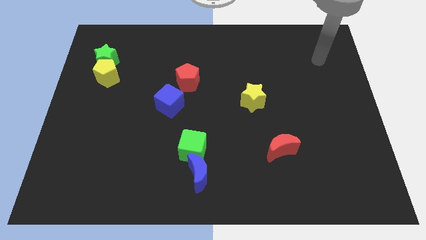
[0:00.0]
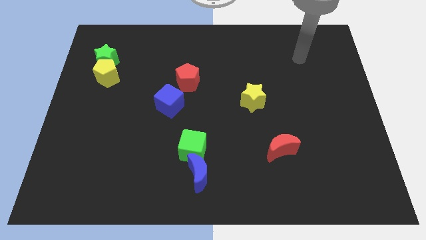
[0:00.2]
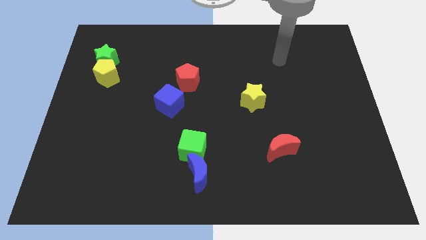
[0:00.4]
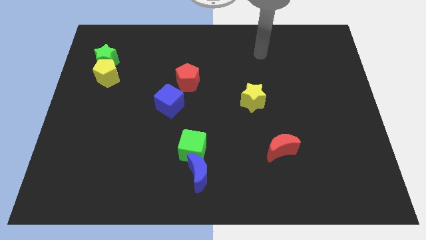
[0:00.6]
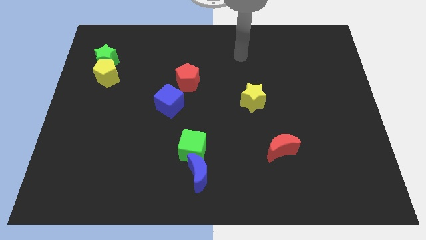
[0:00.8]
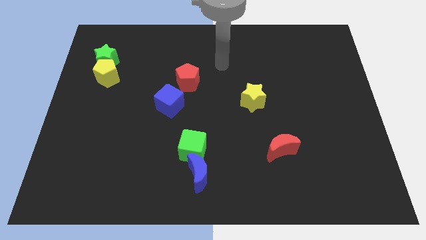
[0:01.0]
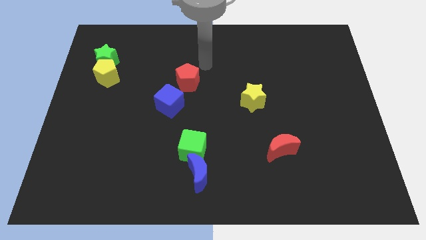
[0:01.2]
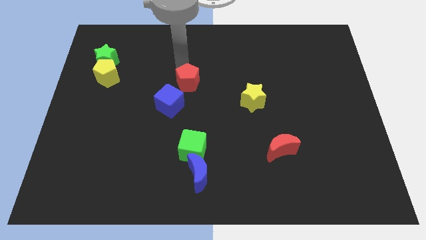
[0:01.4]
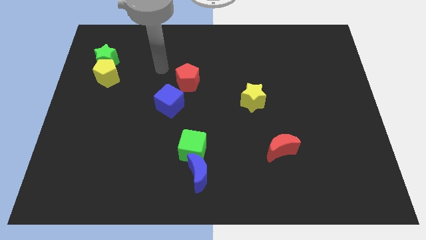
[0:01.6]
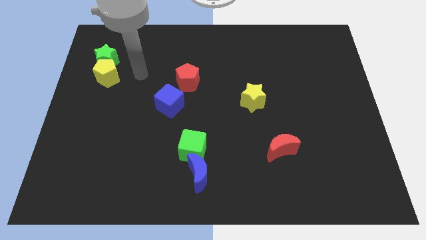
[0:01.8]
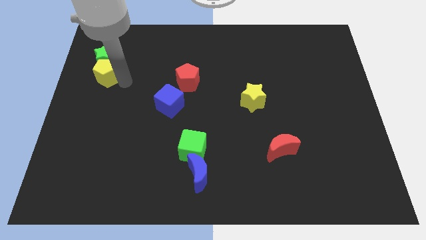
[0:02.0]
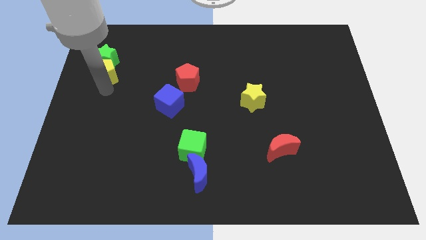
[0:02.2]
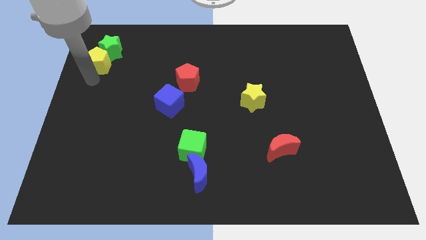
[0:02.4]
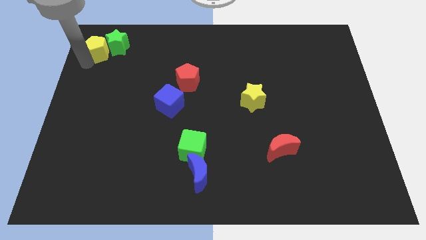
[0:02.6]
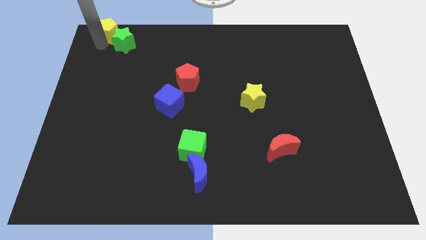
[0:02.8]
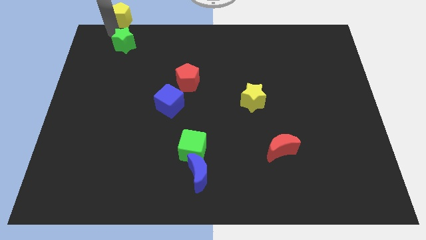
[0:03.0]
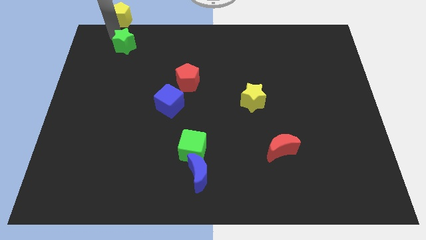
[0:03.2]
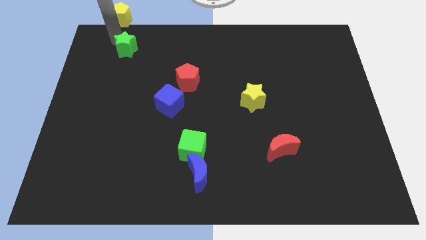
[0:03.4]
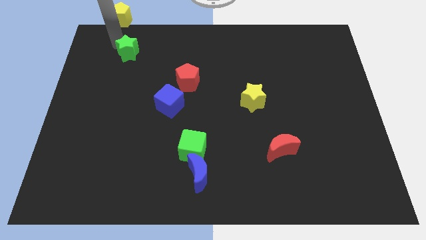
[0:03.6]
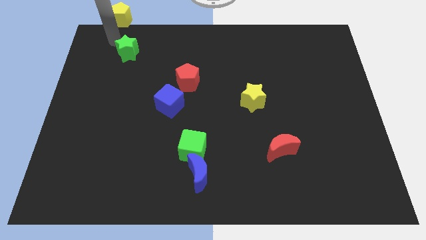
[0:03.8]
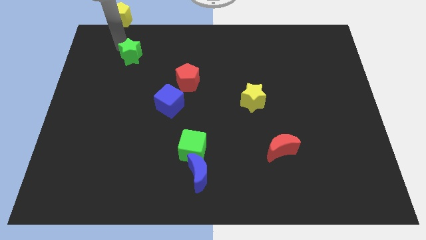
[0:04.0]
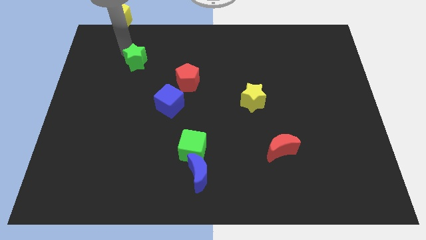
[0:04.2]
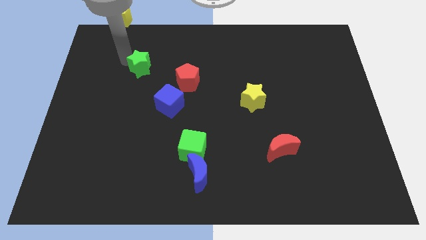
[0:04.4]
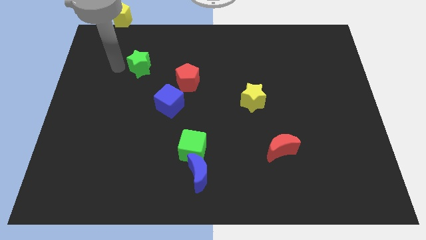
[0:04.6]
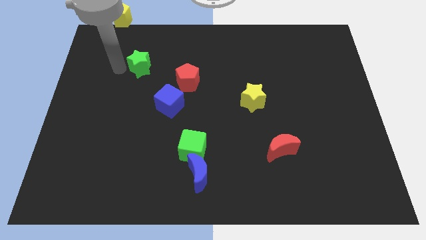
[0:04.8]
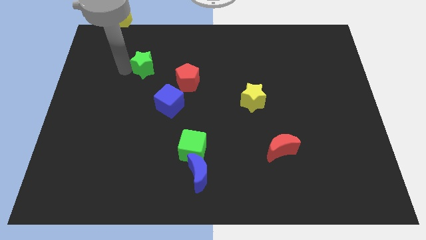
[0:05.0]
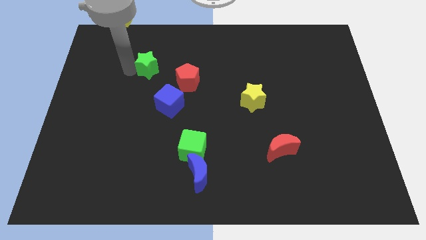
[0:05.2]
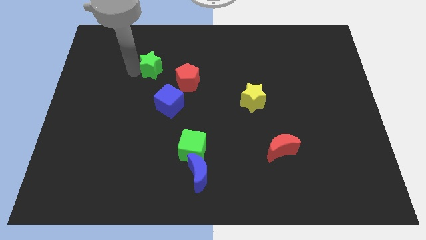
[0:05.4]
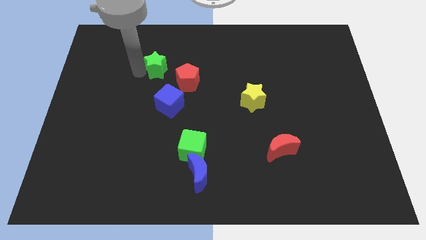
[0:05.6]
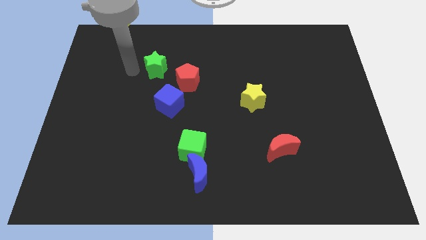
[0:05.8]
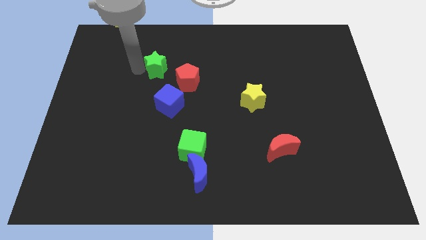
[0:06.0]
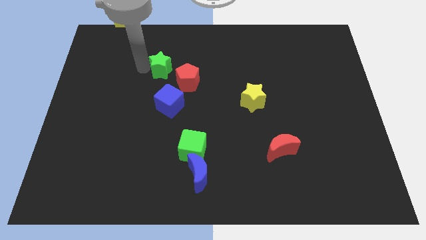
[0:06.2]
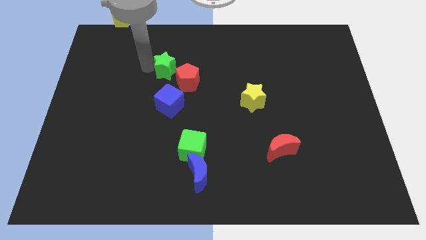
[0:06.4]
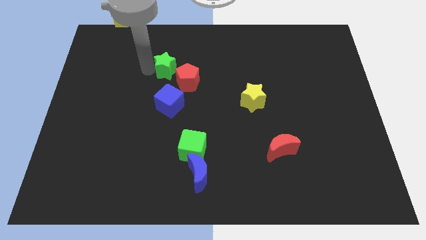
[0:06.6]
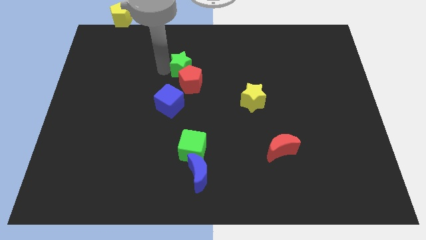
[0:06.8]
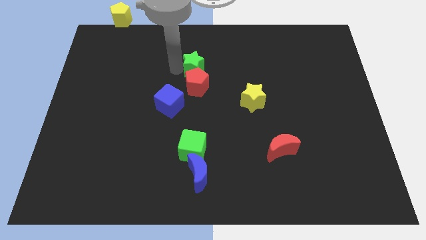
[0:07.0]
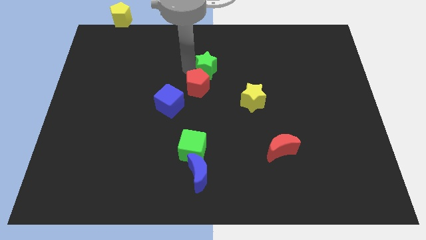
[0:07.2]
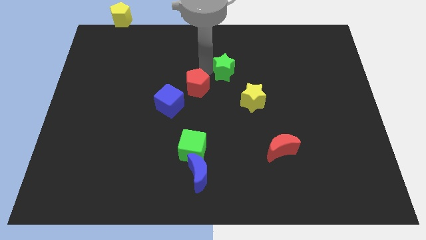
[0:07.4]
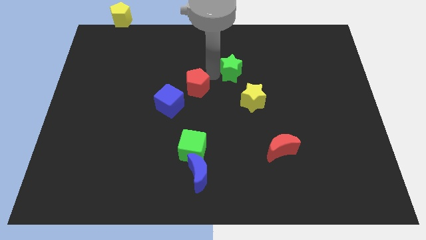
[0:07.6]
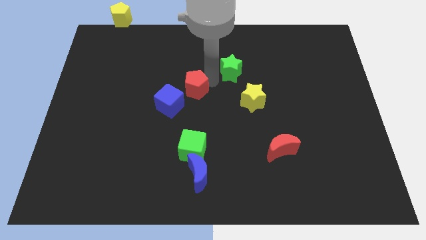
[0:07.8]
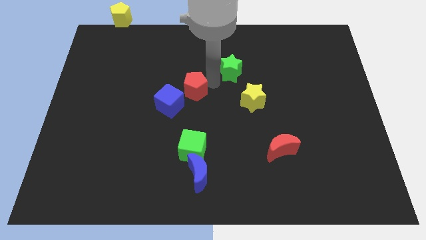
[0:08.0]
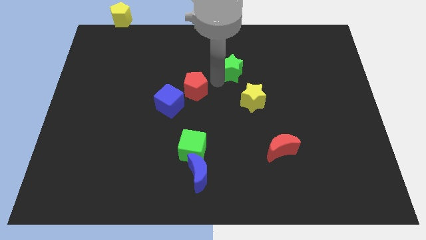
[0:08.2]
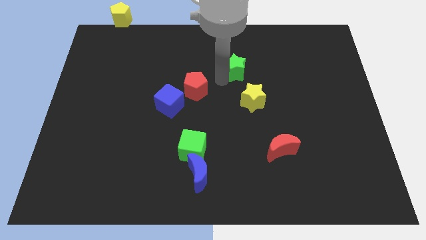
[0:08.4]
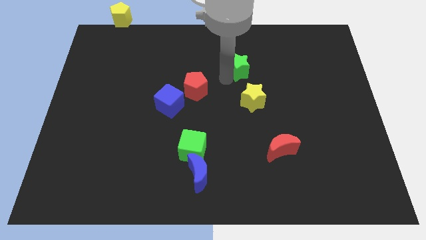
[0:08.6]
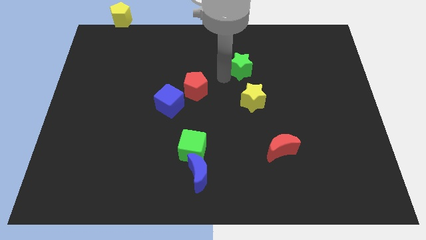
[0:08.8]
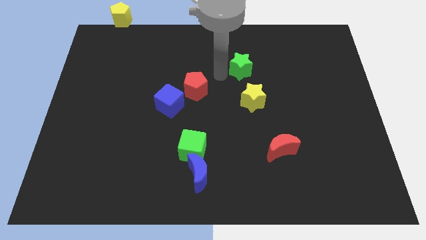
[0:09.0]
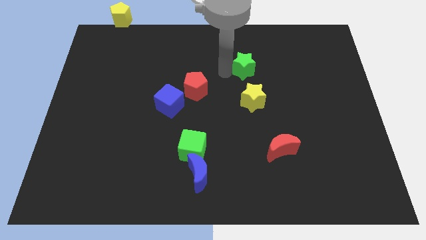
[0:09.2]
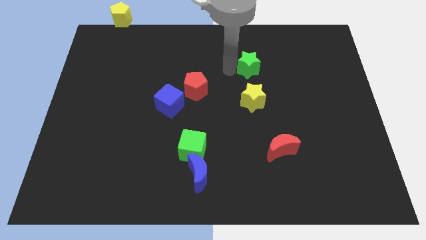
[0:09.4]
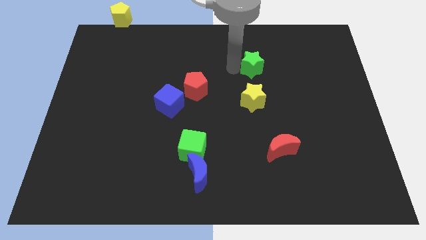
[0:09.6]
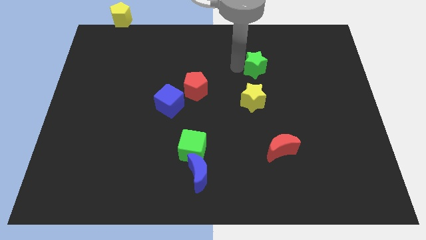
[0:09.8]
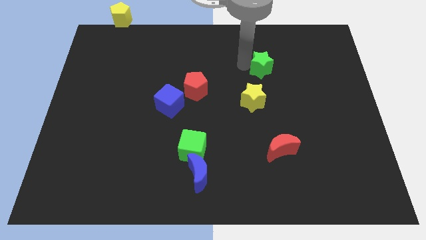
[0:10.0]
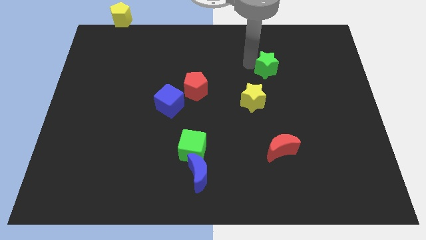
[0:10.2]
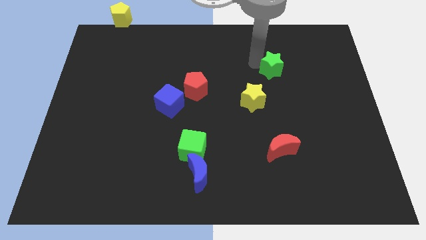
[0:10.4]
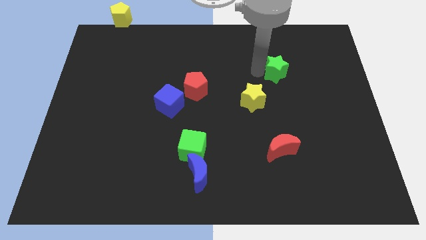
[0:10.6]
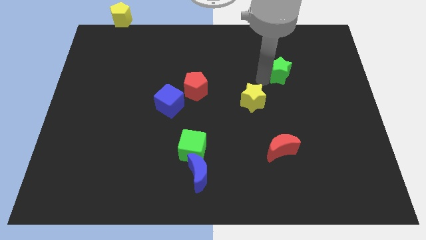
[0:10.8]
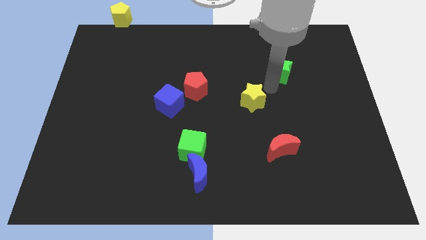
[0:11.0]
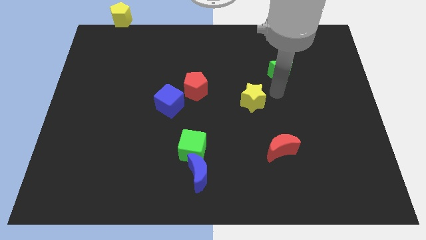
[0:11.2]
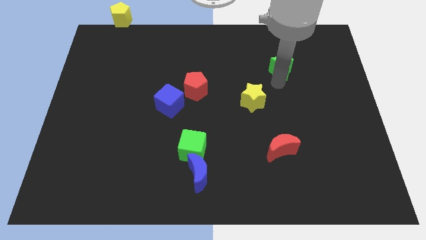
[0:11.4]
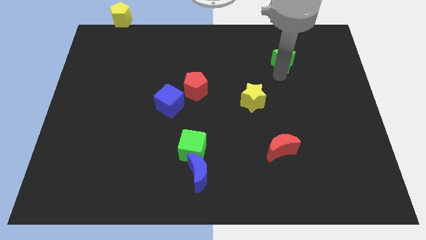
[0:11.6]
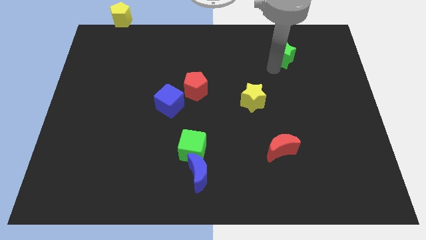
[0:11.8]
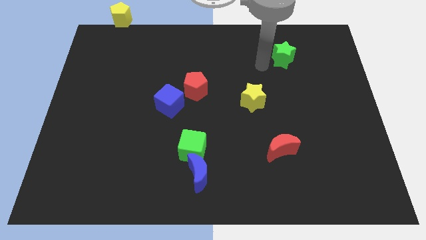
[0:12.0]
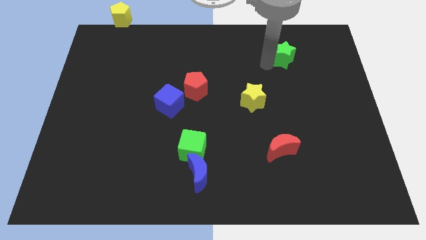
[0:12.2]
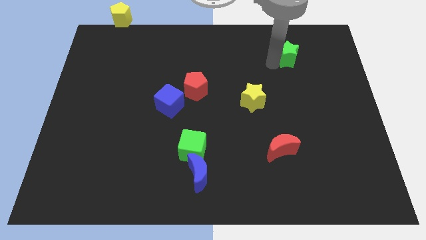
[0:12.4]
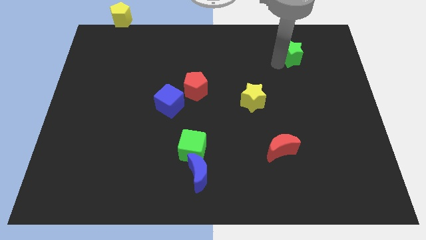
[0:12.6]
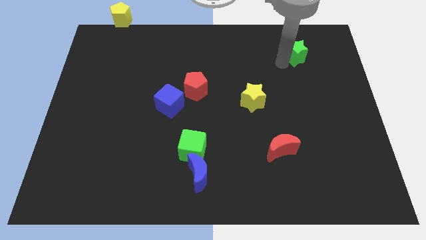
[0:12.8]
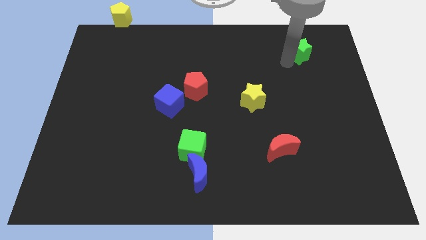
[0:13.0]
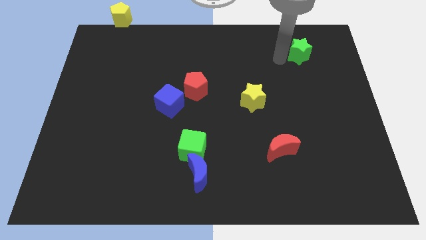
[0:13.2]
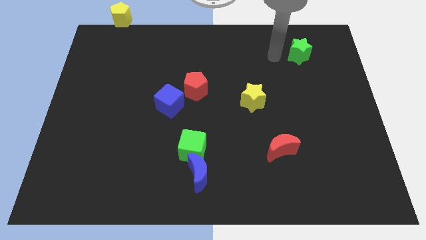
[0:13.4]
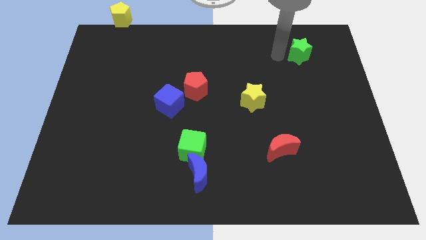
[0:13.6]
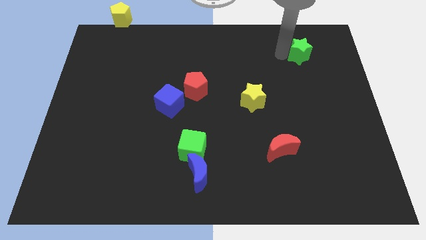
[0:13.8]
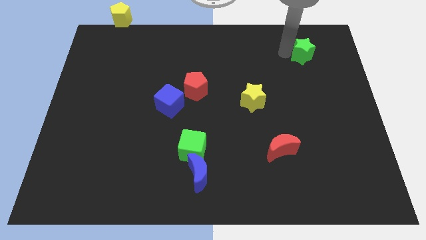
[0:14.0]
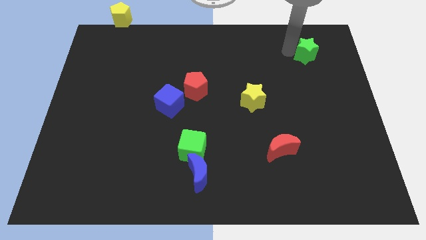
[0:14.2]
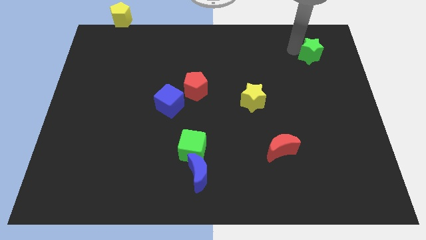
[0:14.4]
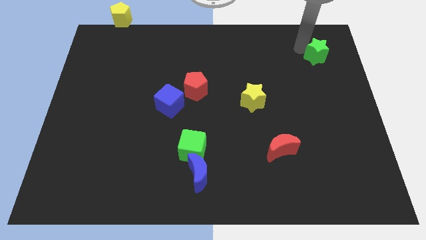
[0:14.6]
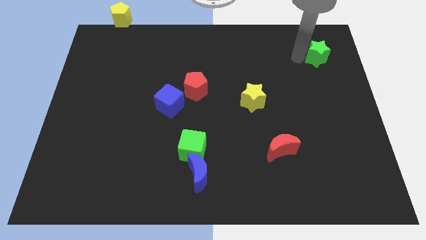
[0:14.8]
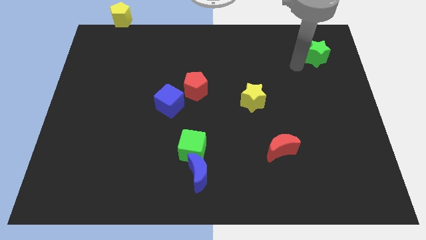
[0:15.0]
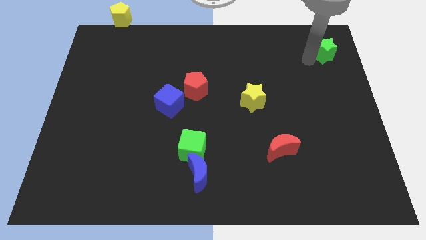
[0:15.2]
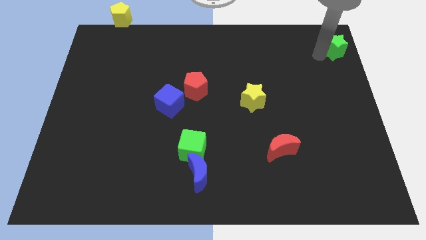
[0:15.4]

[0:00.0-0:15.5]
move the green star to the top right of the board
